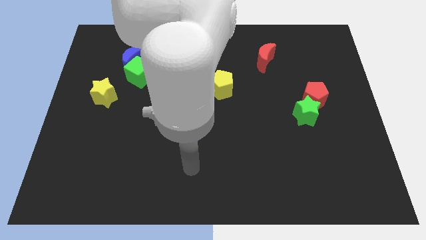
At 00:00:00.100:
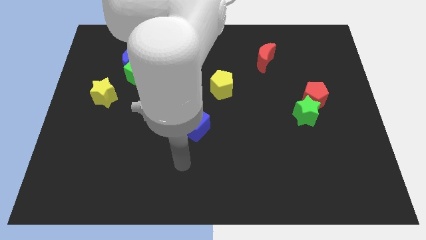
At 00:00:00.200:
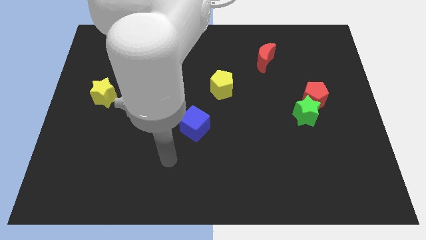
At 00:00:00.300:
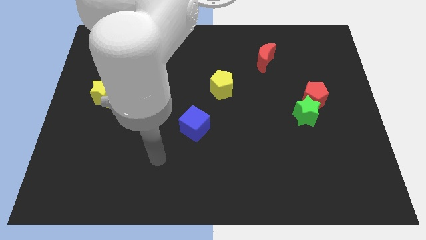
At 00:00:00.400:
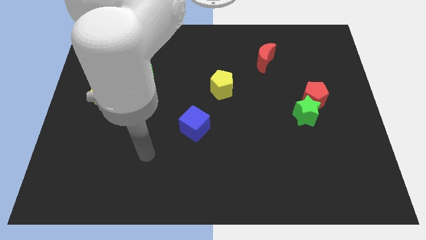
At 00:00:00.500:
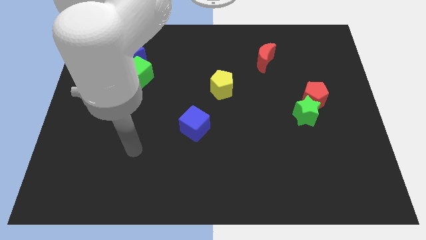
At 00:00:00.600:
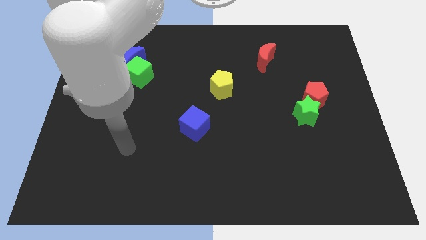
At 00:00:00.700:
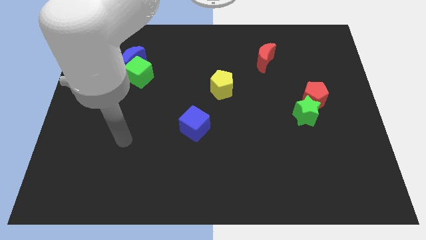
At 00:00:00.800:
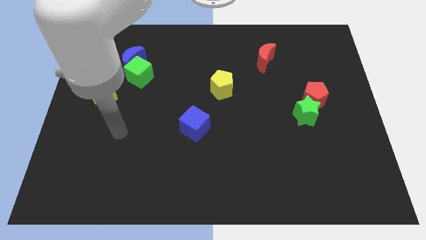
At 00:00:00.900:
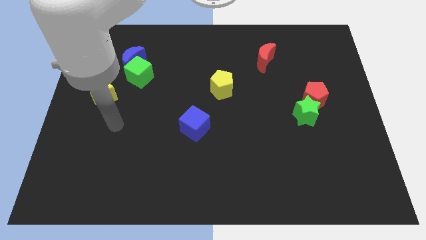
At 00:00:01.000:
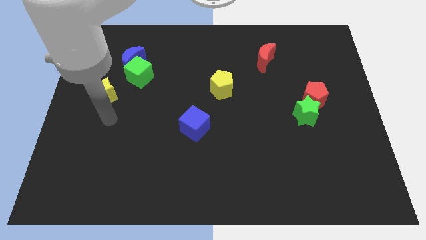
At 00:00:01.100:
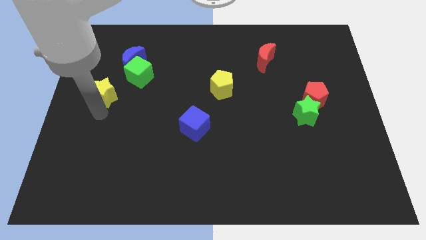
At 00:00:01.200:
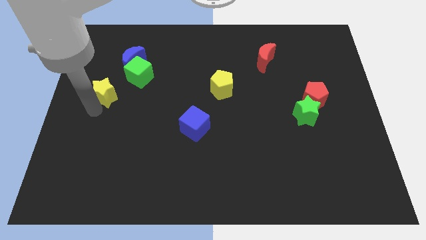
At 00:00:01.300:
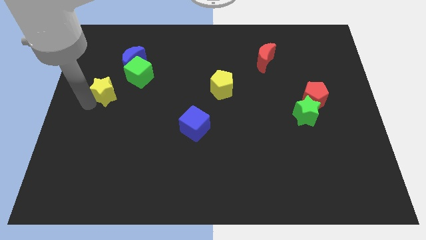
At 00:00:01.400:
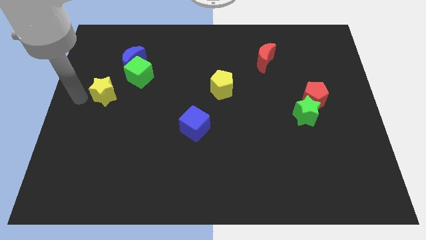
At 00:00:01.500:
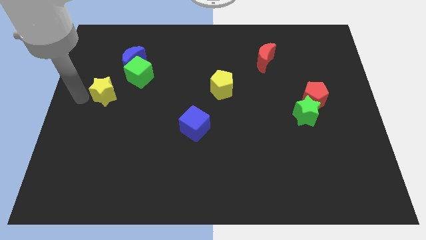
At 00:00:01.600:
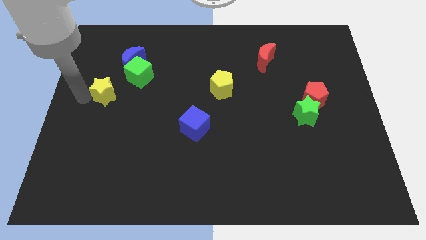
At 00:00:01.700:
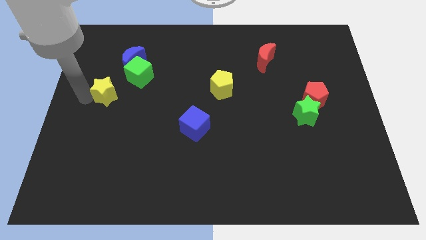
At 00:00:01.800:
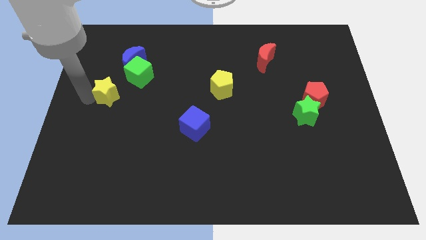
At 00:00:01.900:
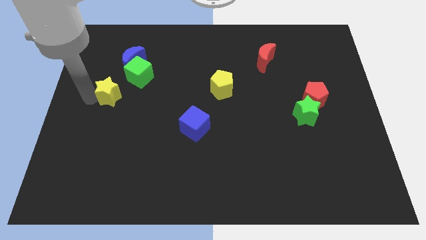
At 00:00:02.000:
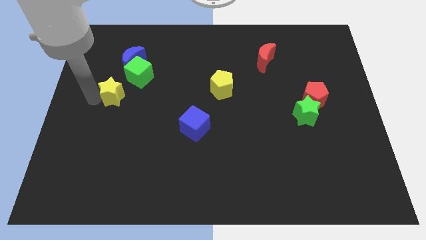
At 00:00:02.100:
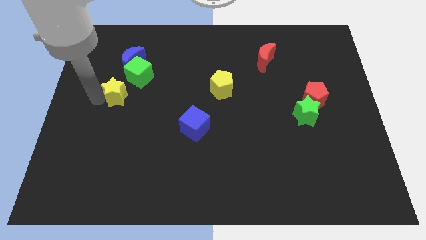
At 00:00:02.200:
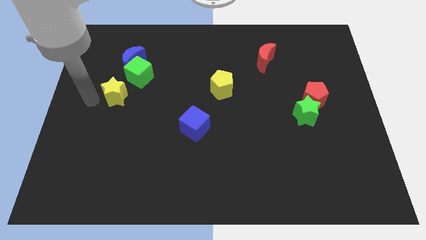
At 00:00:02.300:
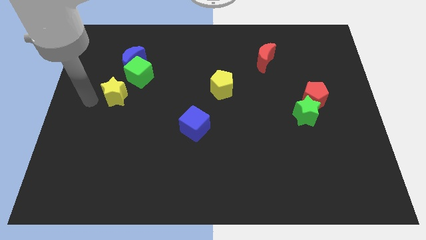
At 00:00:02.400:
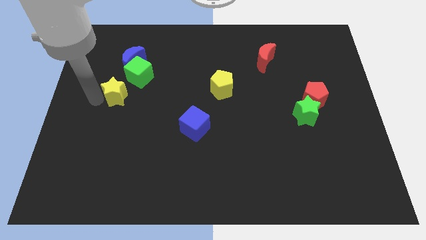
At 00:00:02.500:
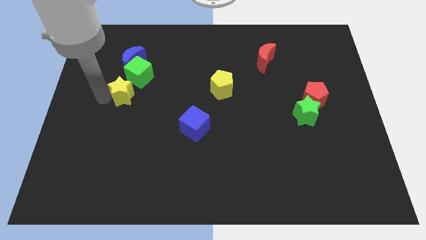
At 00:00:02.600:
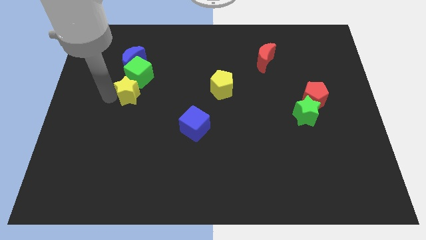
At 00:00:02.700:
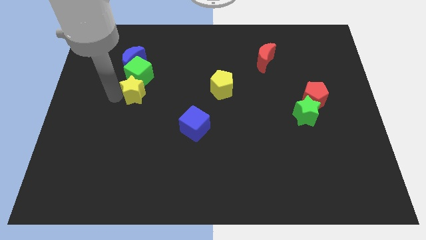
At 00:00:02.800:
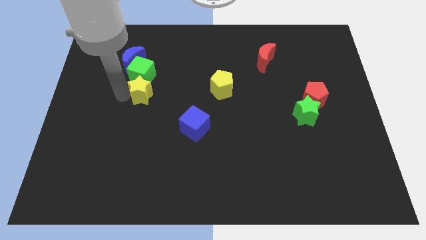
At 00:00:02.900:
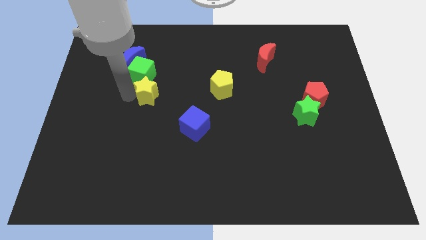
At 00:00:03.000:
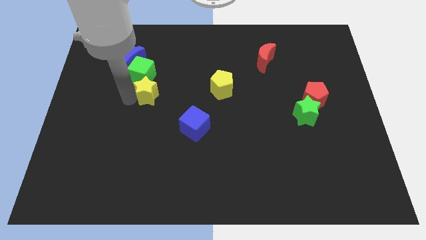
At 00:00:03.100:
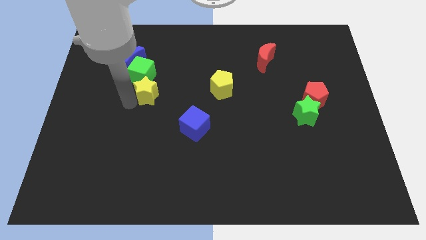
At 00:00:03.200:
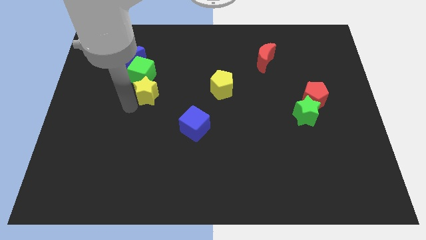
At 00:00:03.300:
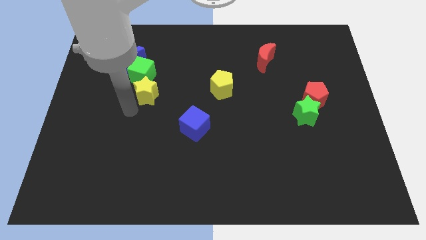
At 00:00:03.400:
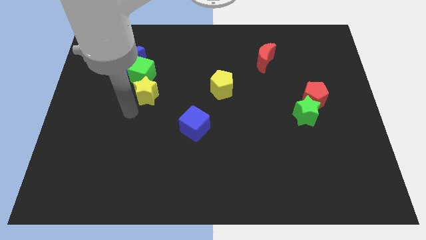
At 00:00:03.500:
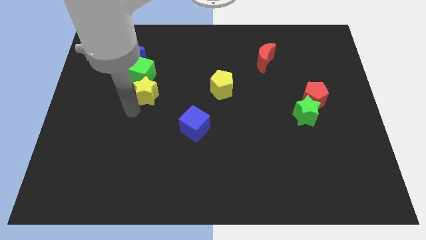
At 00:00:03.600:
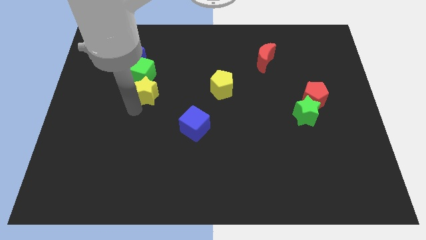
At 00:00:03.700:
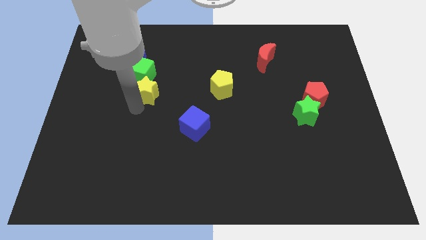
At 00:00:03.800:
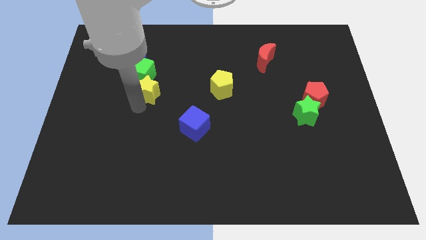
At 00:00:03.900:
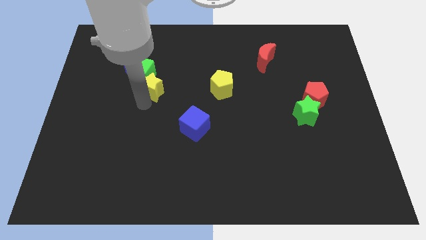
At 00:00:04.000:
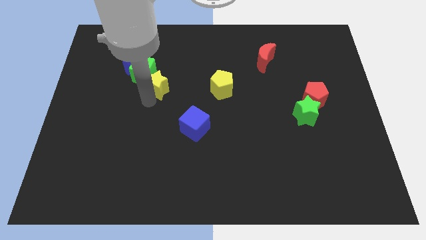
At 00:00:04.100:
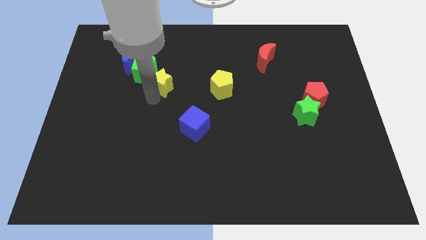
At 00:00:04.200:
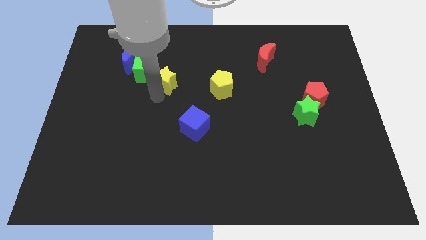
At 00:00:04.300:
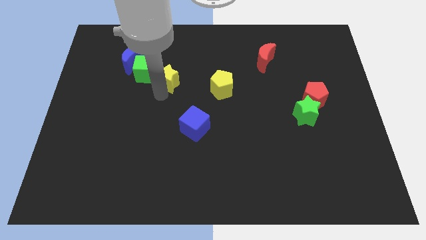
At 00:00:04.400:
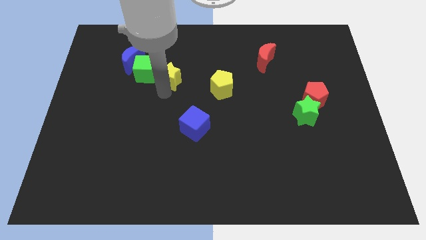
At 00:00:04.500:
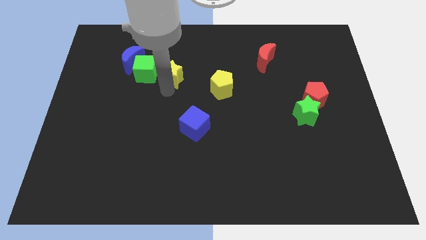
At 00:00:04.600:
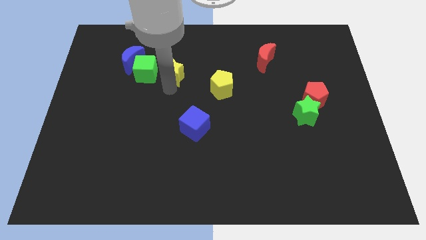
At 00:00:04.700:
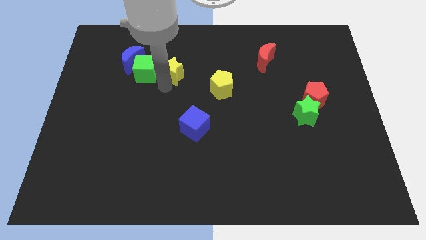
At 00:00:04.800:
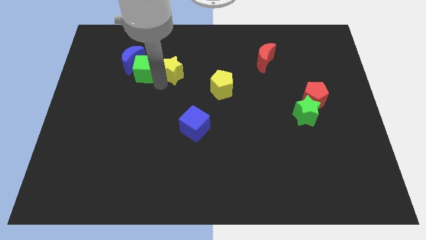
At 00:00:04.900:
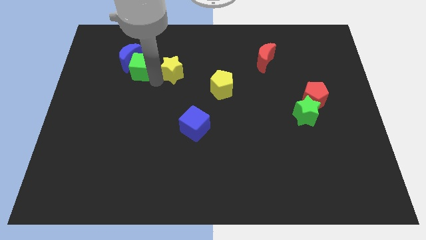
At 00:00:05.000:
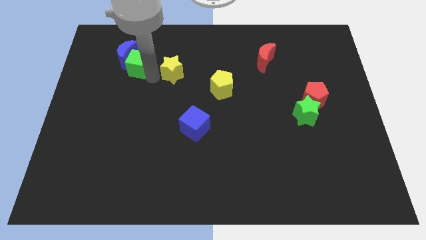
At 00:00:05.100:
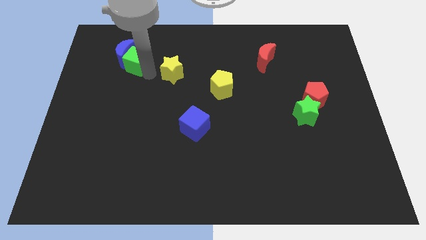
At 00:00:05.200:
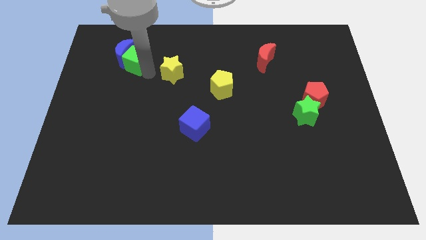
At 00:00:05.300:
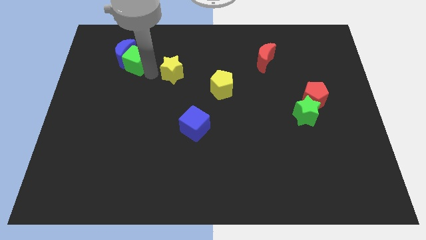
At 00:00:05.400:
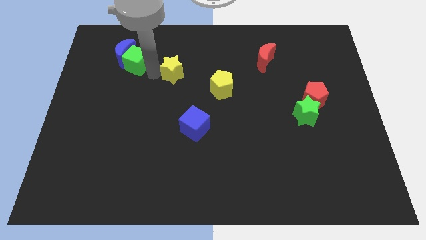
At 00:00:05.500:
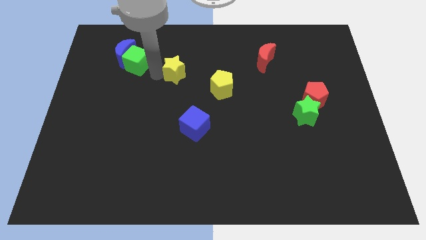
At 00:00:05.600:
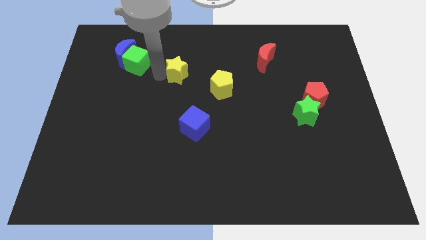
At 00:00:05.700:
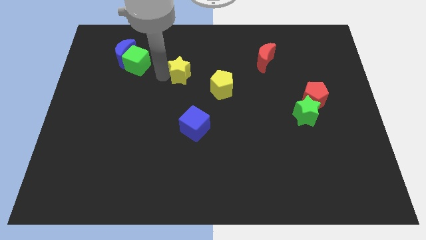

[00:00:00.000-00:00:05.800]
move the yellow star diagonally up and to the left of the yellow pentagon

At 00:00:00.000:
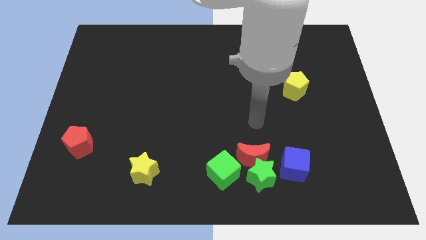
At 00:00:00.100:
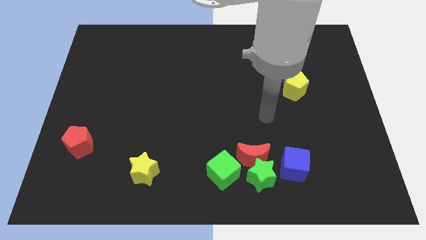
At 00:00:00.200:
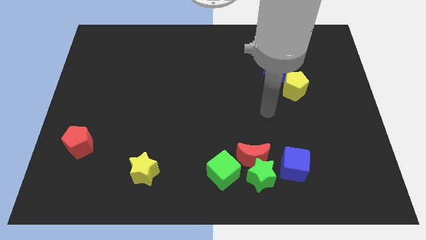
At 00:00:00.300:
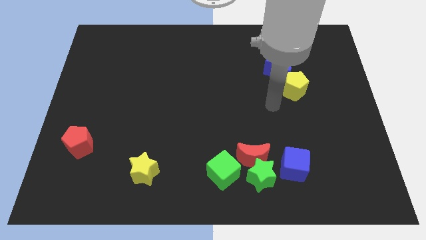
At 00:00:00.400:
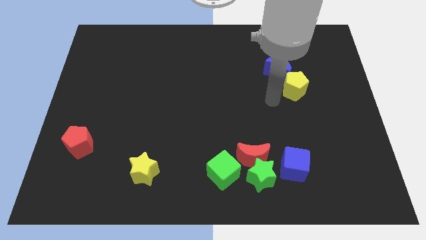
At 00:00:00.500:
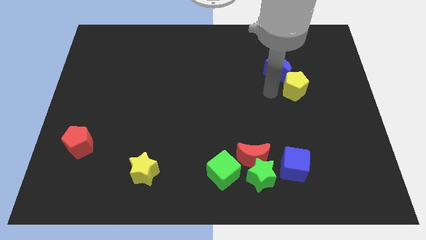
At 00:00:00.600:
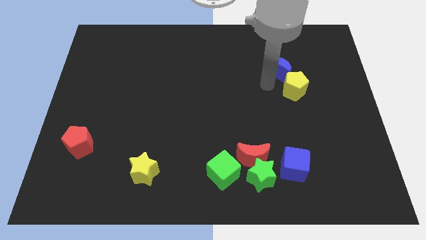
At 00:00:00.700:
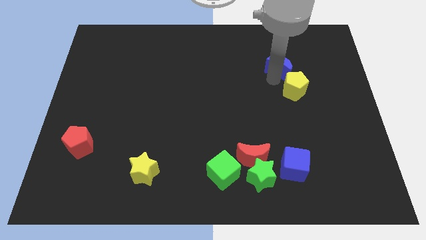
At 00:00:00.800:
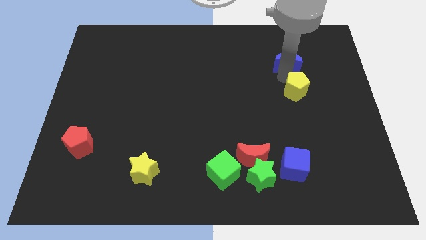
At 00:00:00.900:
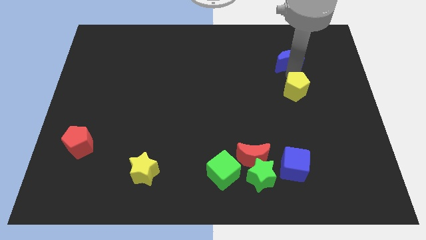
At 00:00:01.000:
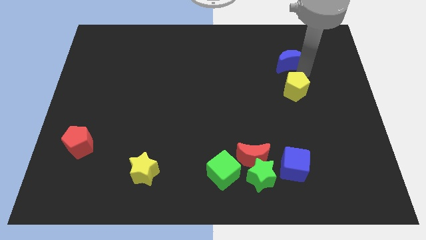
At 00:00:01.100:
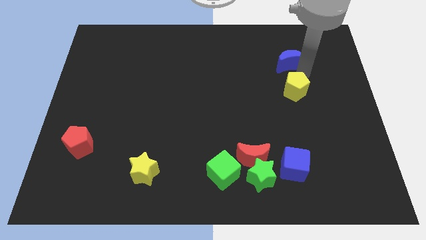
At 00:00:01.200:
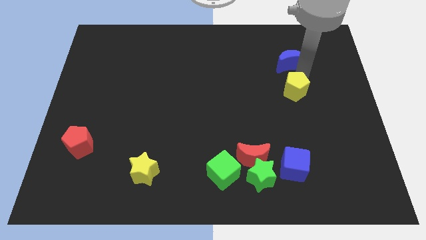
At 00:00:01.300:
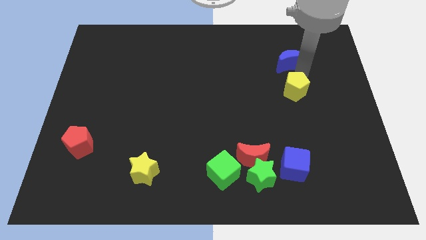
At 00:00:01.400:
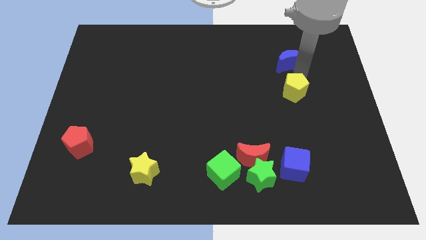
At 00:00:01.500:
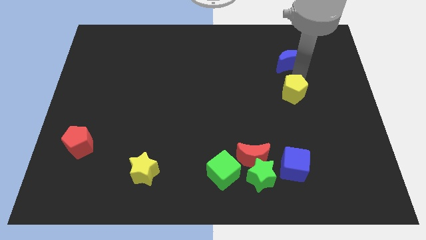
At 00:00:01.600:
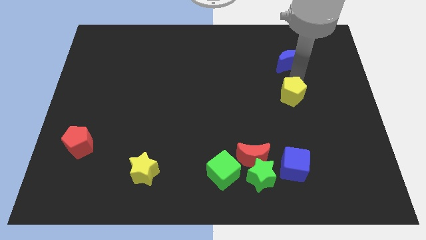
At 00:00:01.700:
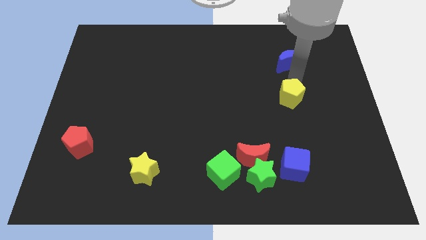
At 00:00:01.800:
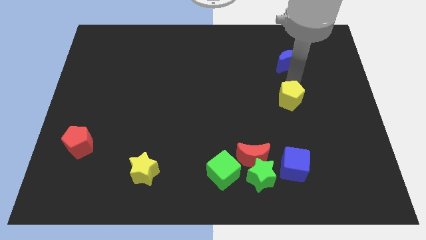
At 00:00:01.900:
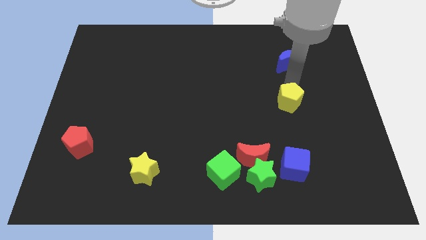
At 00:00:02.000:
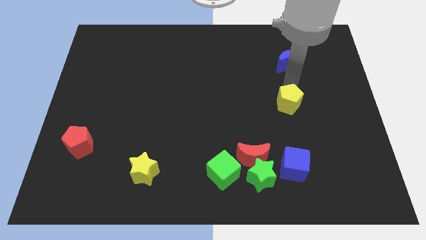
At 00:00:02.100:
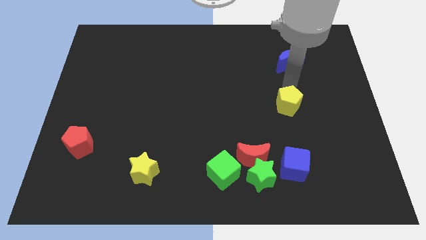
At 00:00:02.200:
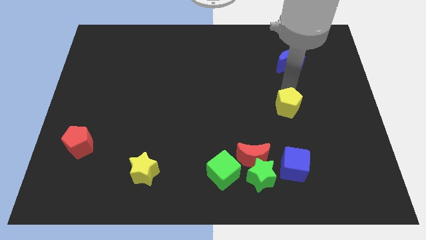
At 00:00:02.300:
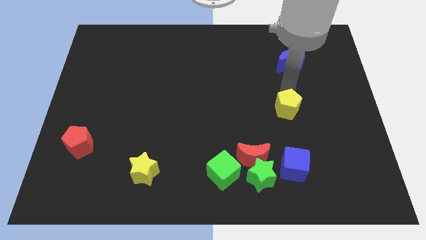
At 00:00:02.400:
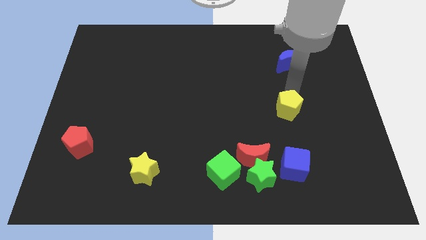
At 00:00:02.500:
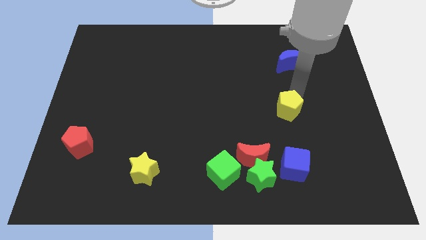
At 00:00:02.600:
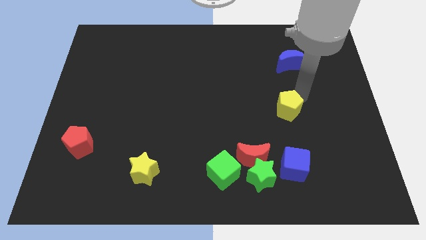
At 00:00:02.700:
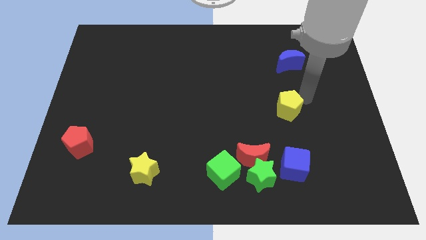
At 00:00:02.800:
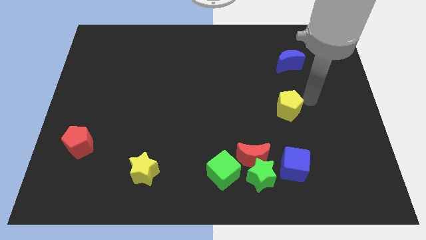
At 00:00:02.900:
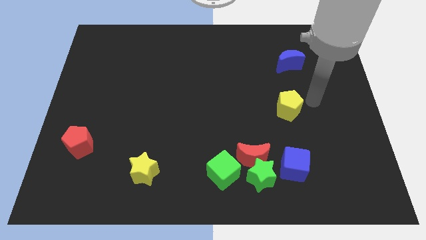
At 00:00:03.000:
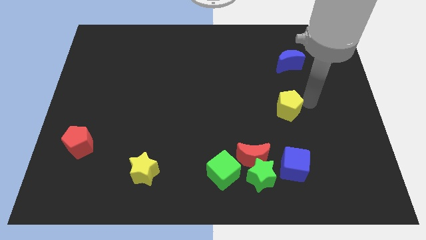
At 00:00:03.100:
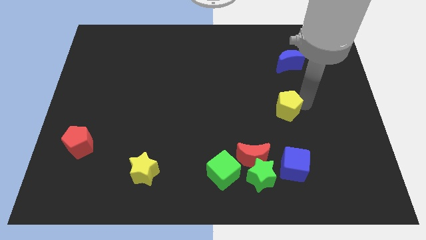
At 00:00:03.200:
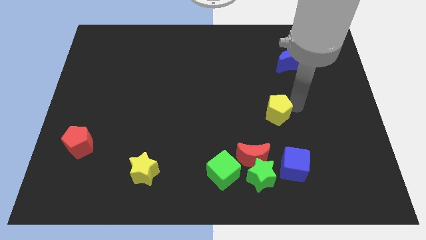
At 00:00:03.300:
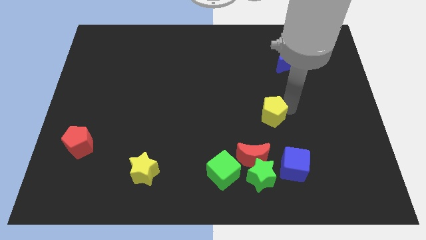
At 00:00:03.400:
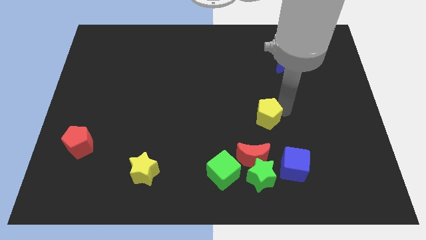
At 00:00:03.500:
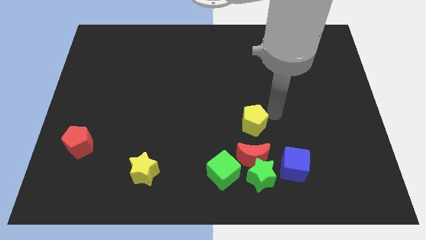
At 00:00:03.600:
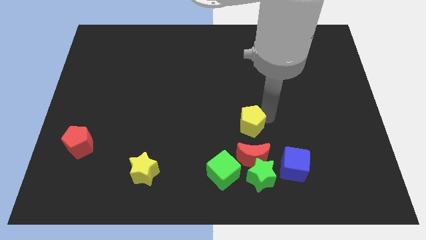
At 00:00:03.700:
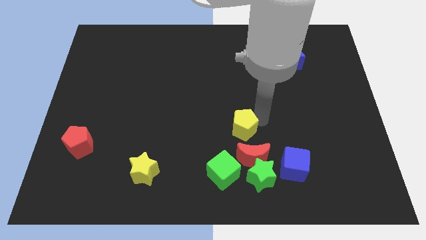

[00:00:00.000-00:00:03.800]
move the yellow pentagon diagonally up and to the left of the red moon
